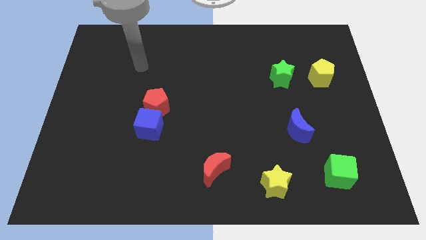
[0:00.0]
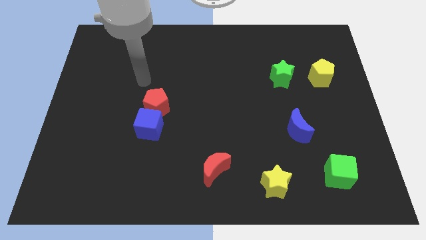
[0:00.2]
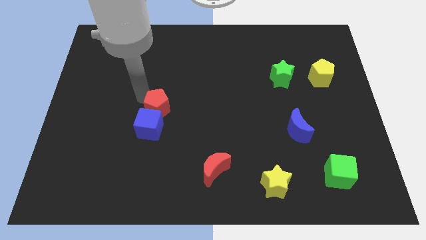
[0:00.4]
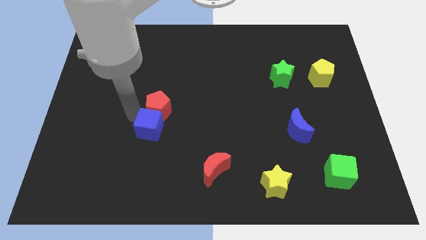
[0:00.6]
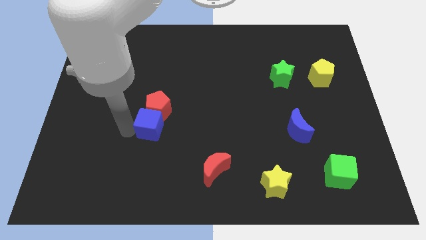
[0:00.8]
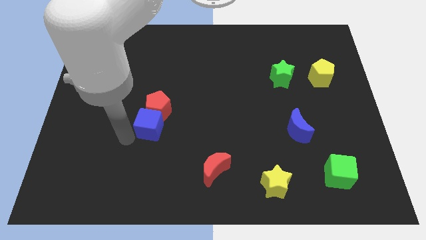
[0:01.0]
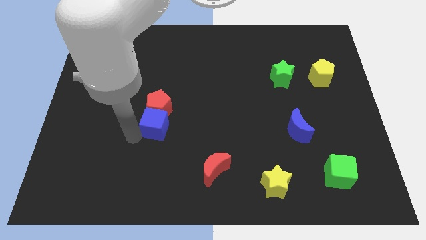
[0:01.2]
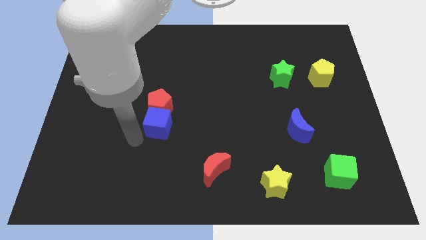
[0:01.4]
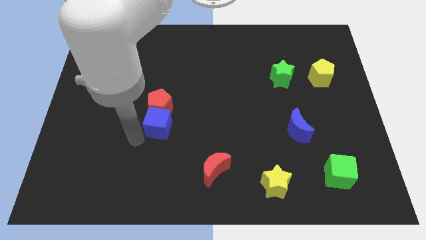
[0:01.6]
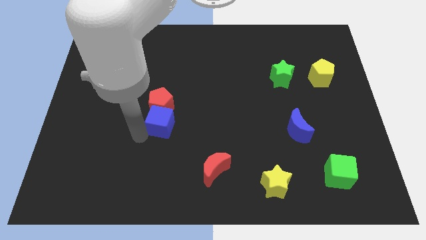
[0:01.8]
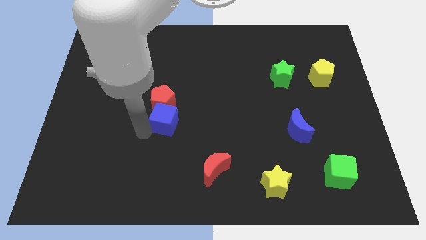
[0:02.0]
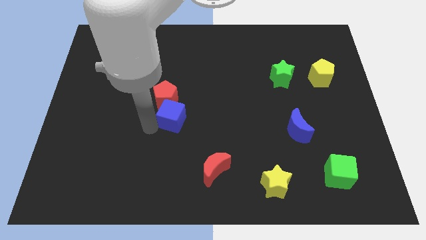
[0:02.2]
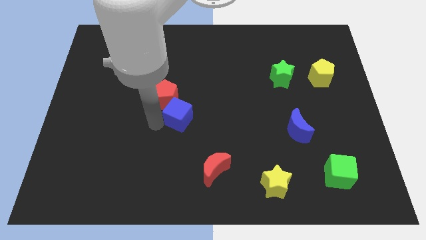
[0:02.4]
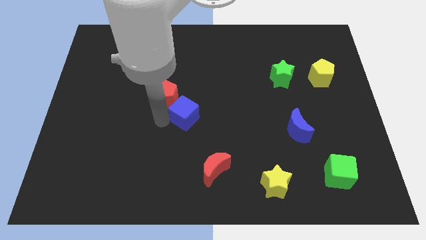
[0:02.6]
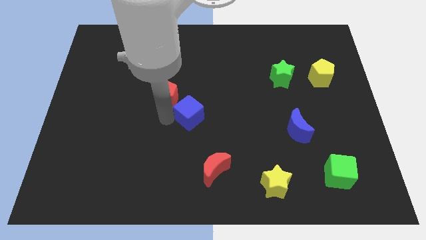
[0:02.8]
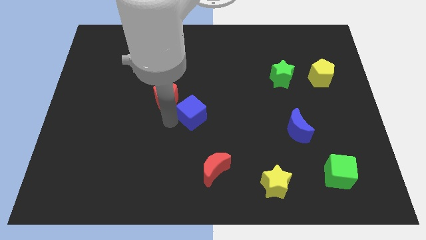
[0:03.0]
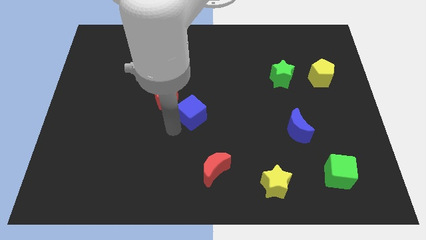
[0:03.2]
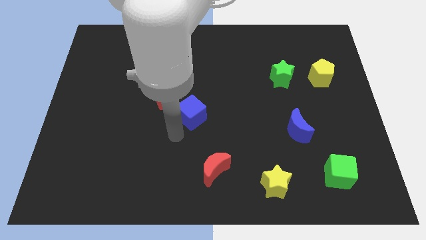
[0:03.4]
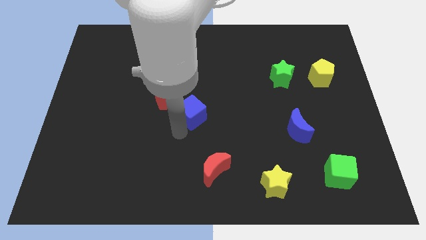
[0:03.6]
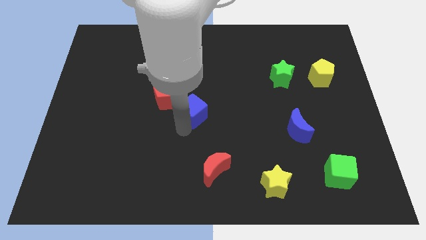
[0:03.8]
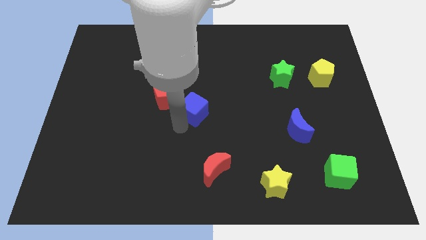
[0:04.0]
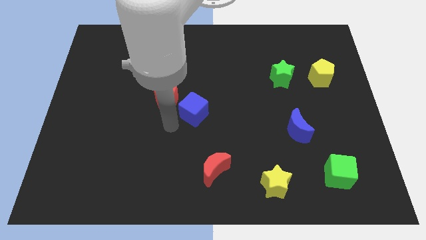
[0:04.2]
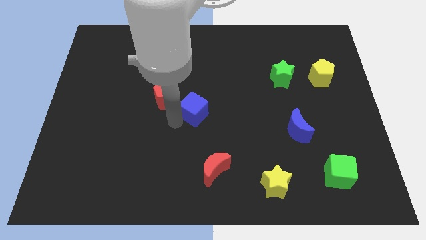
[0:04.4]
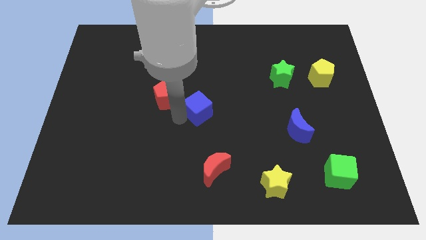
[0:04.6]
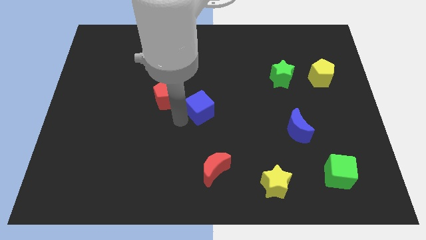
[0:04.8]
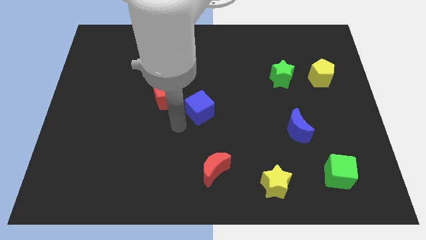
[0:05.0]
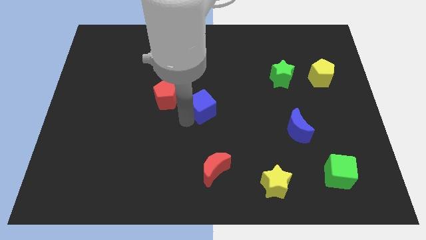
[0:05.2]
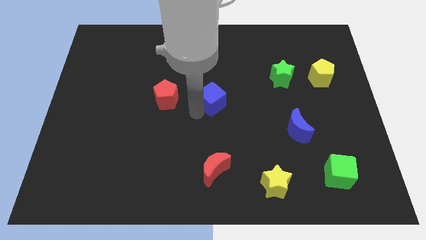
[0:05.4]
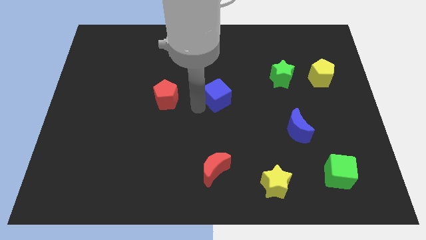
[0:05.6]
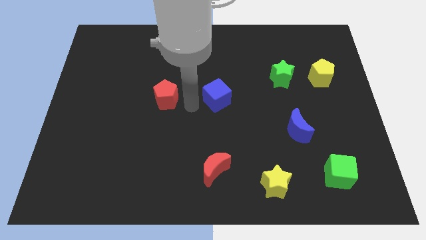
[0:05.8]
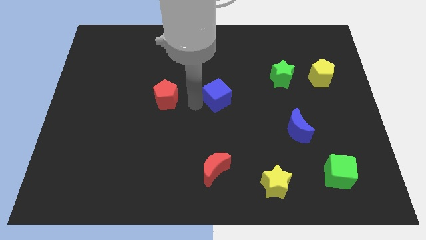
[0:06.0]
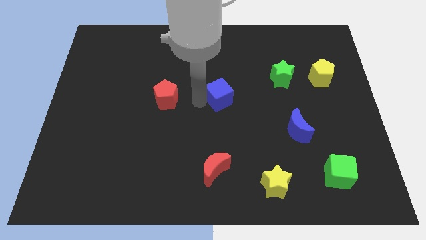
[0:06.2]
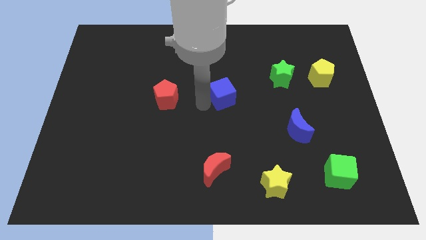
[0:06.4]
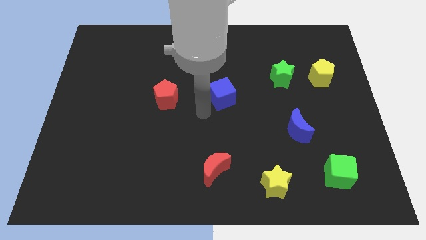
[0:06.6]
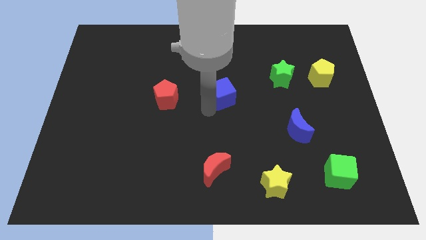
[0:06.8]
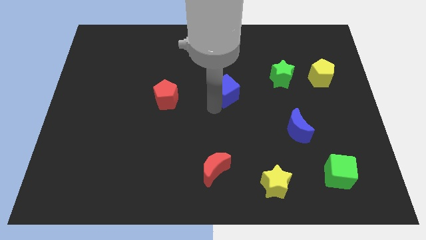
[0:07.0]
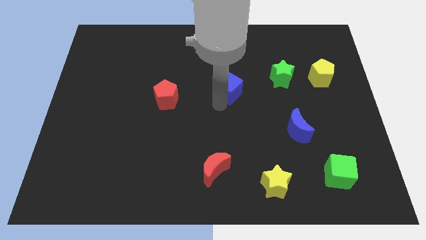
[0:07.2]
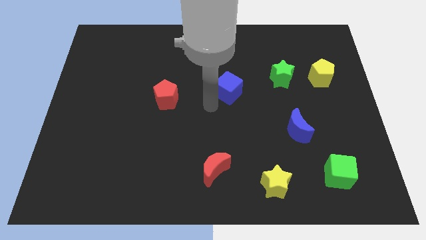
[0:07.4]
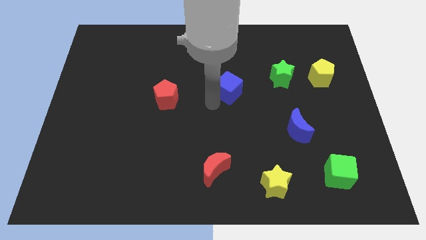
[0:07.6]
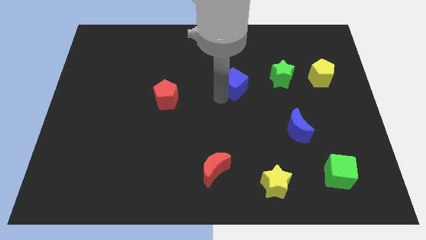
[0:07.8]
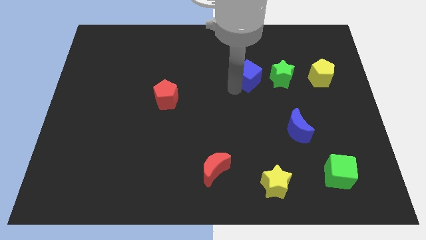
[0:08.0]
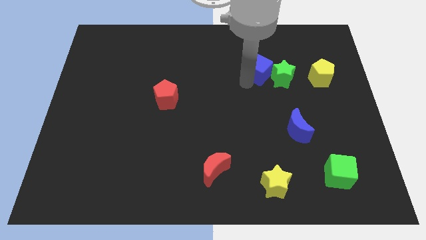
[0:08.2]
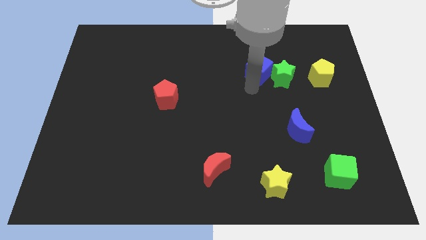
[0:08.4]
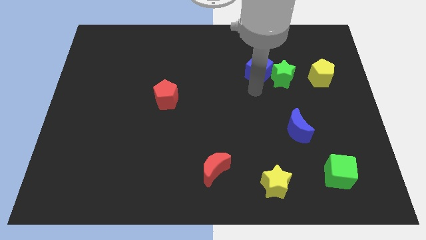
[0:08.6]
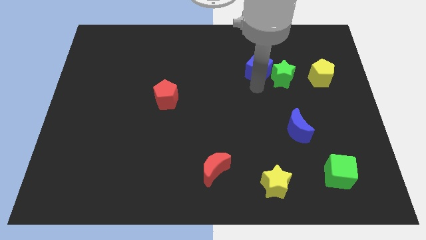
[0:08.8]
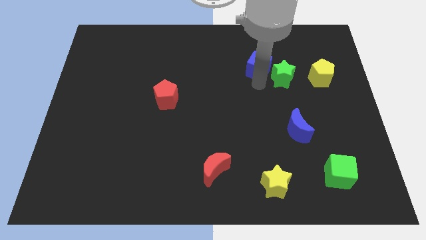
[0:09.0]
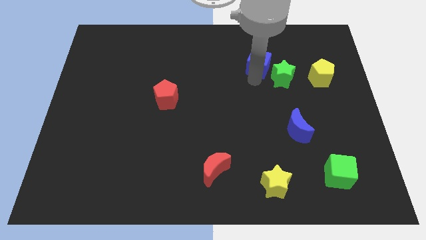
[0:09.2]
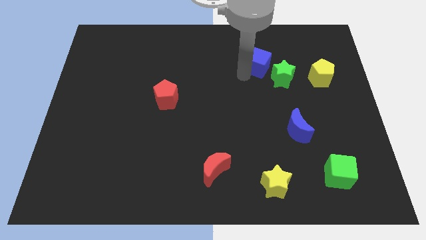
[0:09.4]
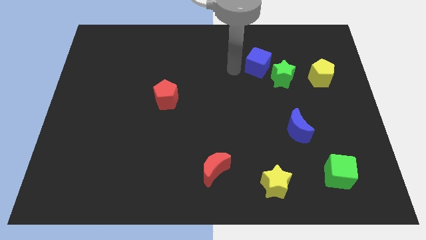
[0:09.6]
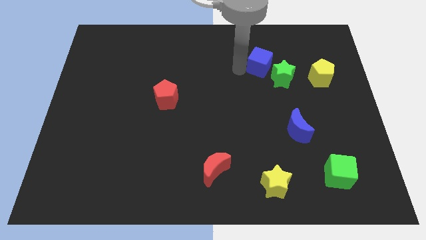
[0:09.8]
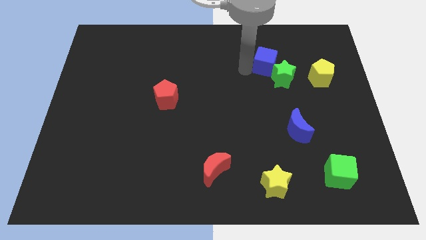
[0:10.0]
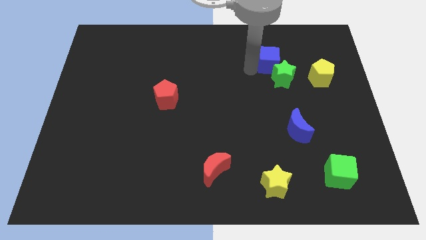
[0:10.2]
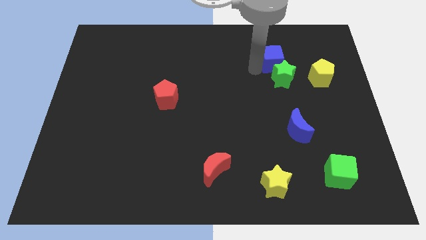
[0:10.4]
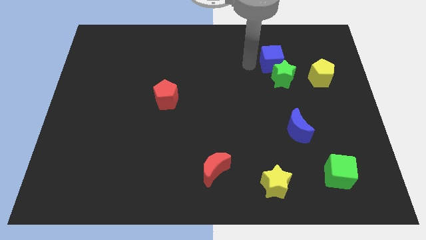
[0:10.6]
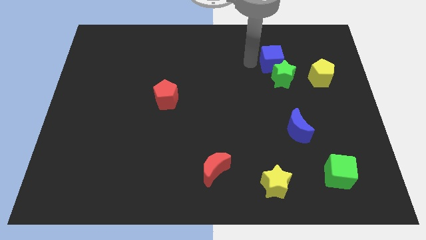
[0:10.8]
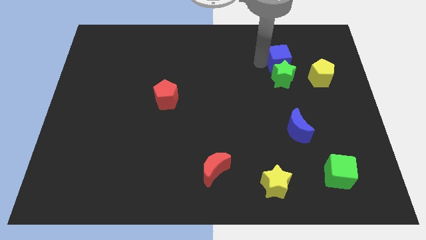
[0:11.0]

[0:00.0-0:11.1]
slide the blue cube to the top right of the green star

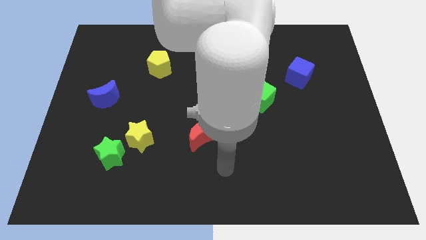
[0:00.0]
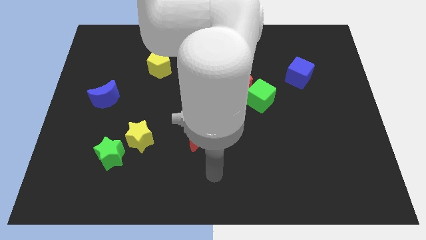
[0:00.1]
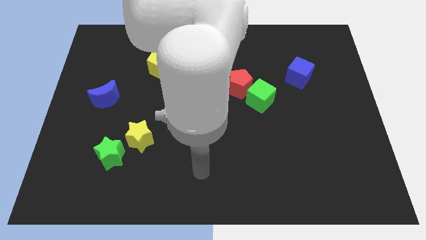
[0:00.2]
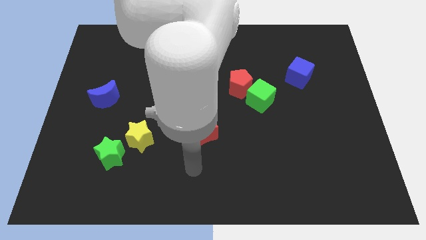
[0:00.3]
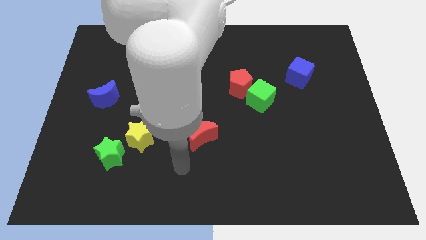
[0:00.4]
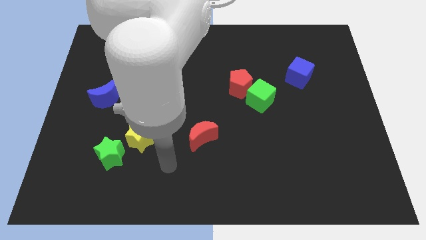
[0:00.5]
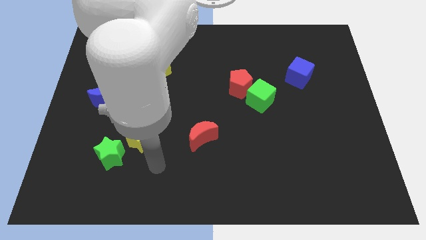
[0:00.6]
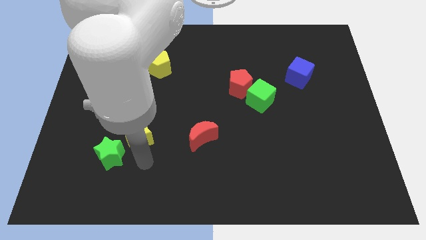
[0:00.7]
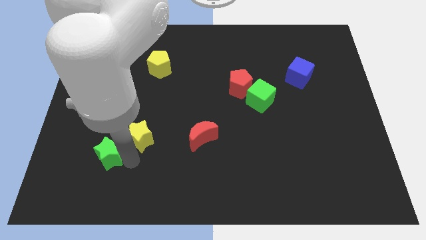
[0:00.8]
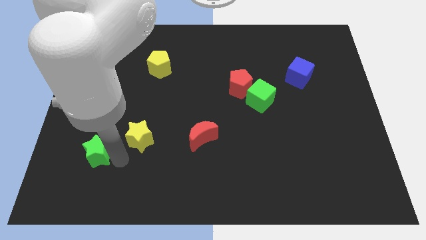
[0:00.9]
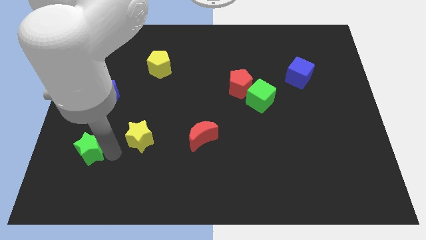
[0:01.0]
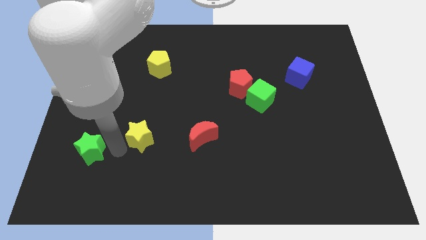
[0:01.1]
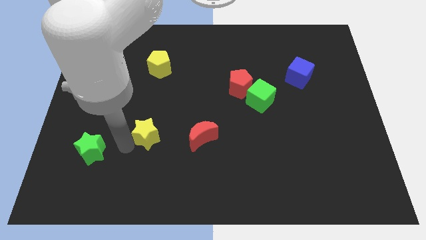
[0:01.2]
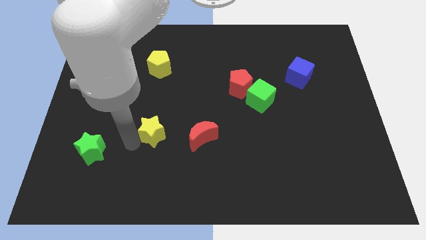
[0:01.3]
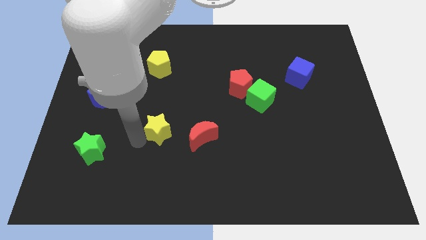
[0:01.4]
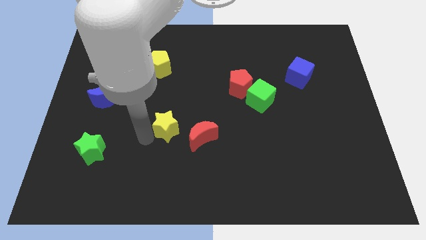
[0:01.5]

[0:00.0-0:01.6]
put the yellow star to the top left side of the red moon
